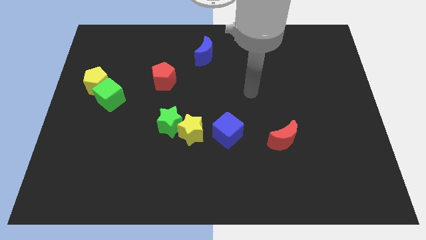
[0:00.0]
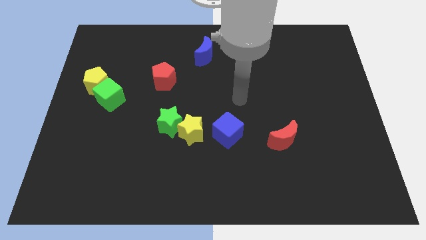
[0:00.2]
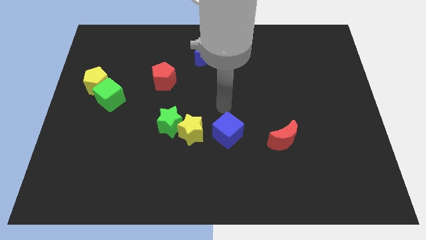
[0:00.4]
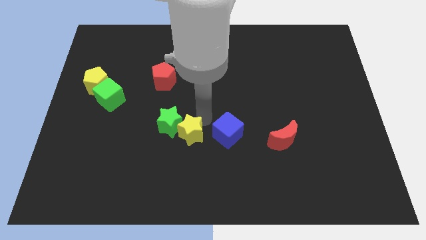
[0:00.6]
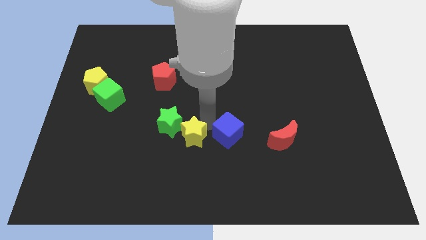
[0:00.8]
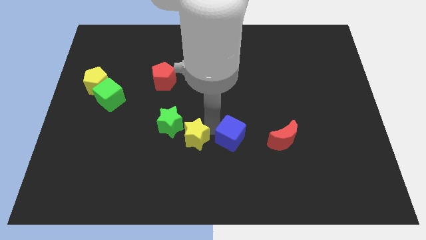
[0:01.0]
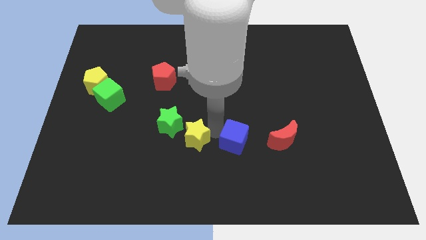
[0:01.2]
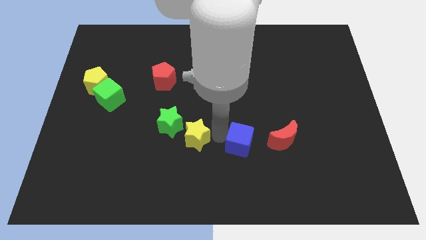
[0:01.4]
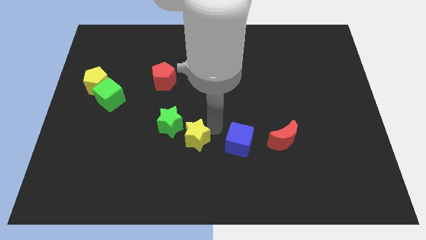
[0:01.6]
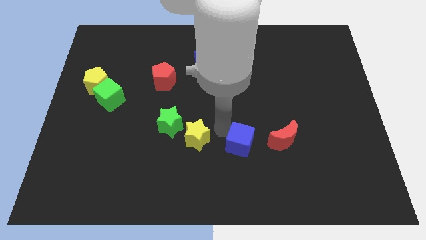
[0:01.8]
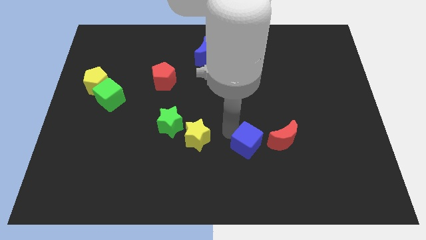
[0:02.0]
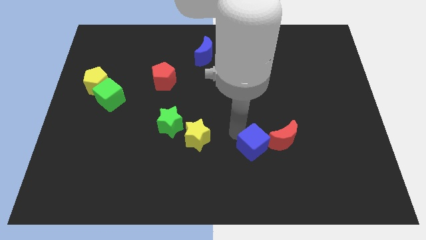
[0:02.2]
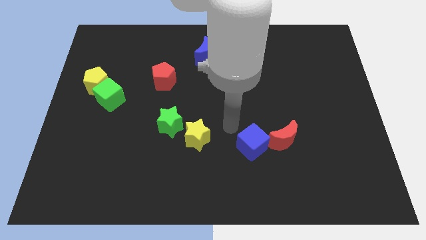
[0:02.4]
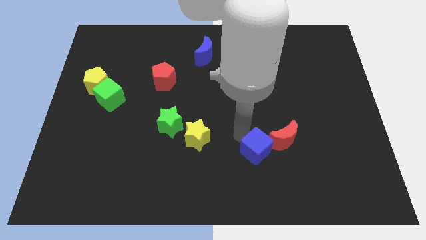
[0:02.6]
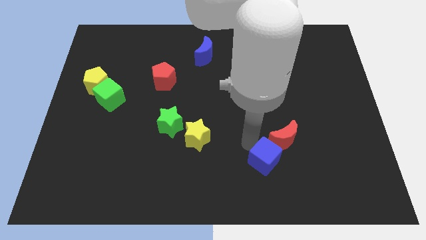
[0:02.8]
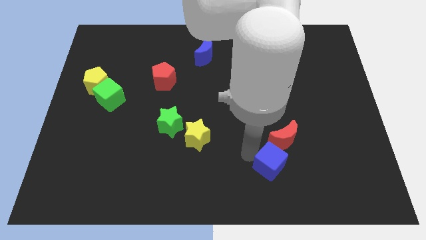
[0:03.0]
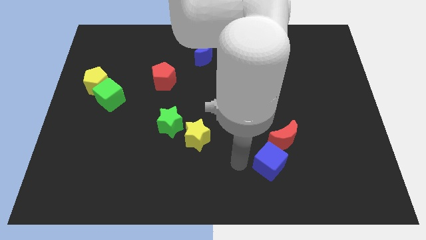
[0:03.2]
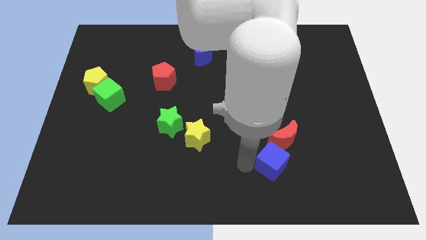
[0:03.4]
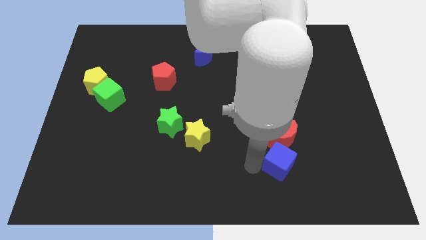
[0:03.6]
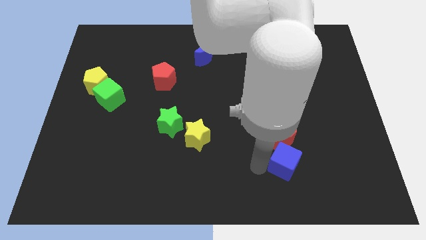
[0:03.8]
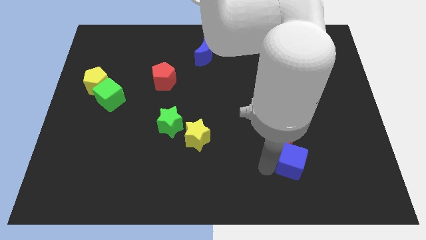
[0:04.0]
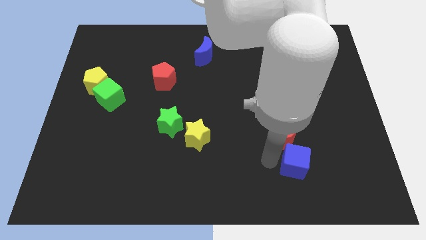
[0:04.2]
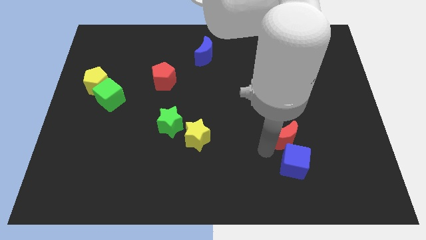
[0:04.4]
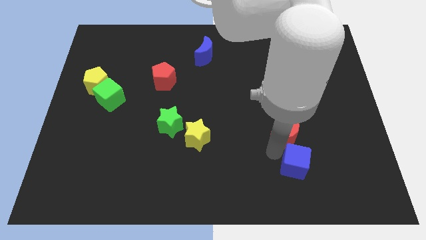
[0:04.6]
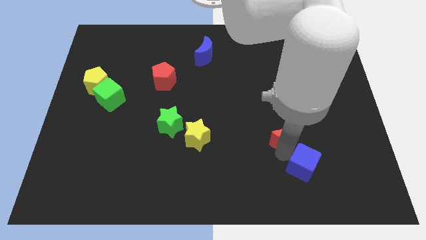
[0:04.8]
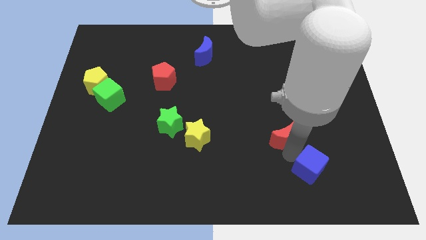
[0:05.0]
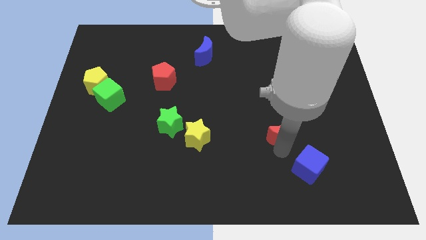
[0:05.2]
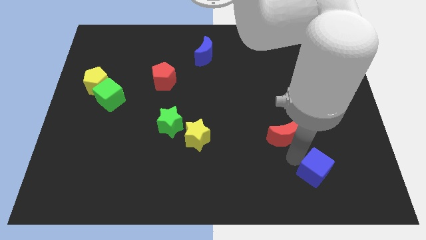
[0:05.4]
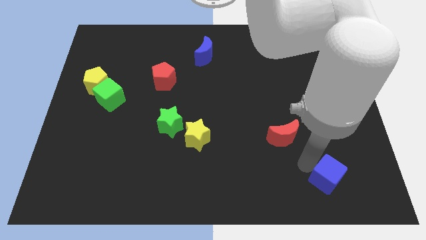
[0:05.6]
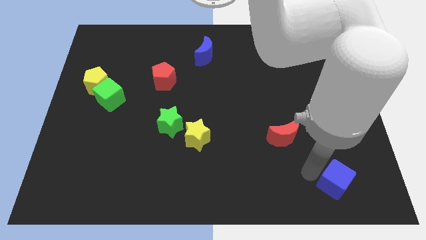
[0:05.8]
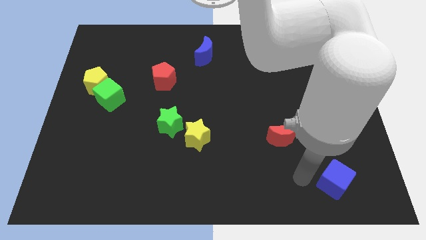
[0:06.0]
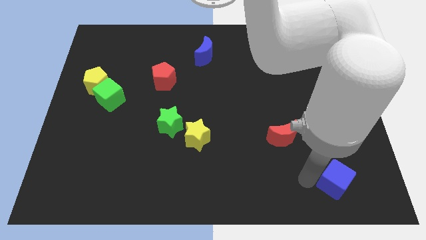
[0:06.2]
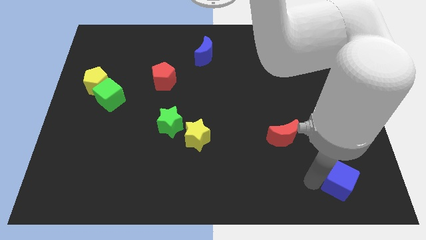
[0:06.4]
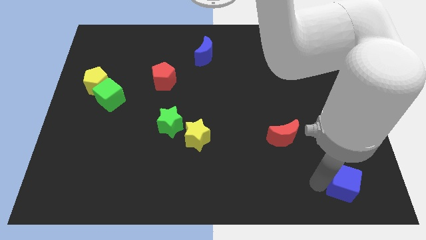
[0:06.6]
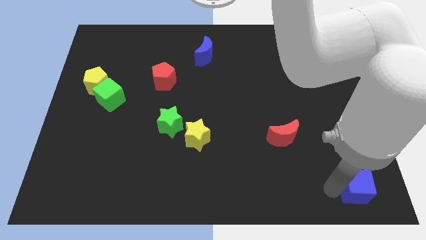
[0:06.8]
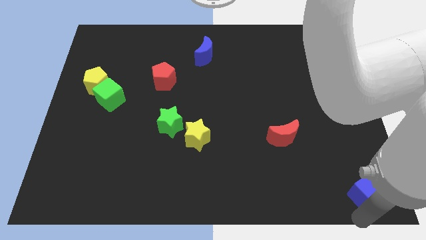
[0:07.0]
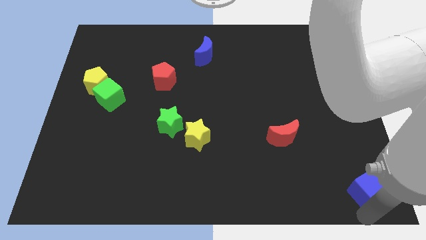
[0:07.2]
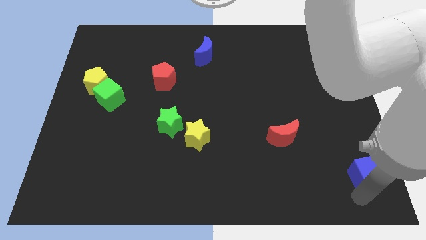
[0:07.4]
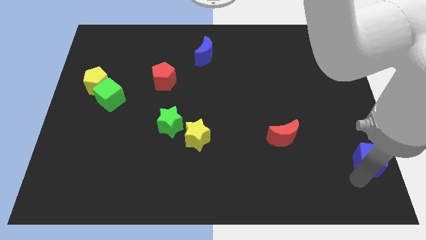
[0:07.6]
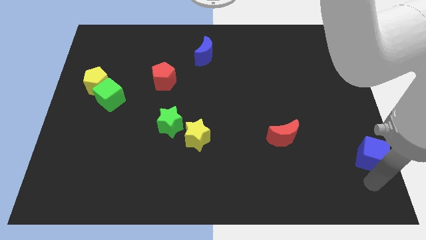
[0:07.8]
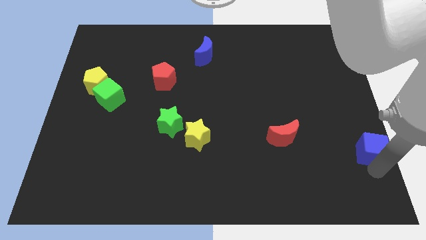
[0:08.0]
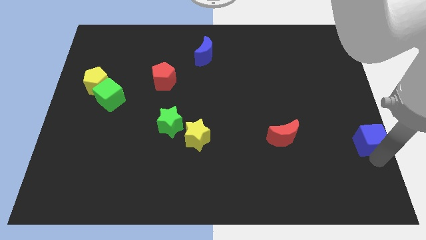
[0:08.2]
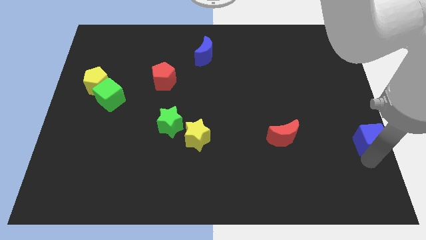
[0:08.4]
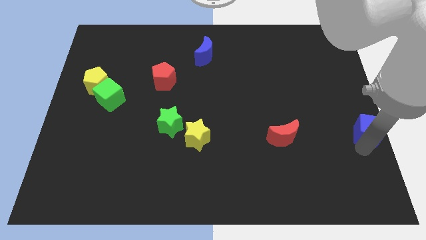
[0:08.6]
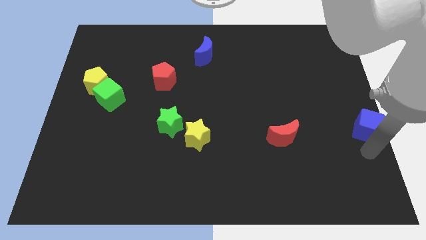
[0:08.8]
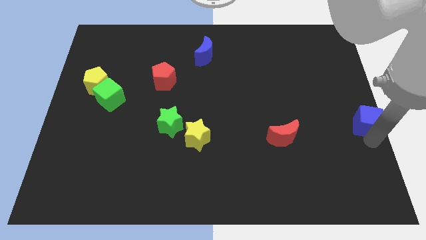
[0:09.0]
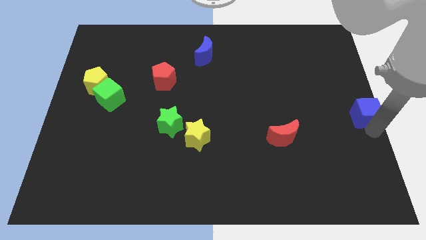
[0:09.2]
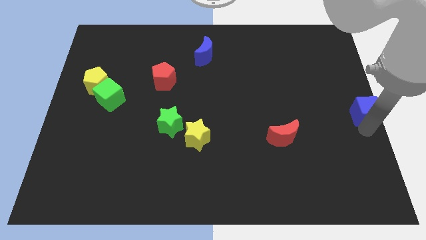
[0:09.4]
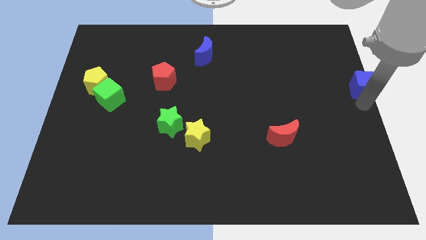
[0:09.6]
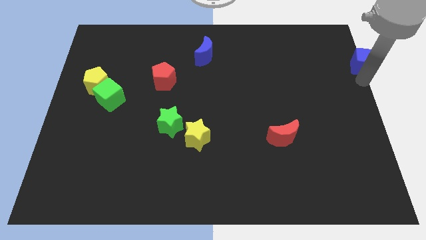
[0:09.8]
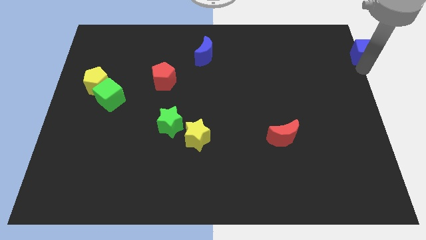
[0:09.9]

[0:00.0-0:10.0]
move the blue cube to the top right of the board

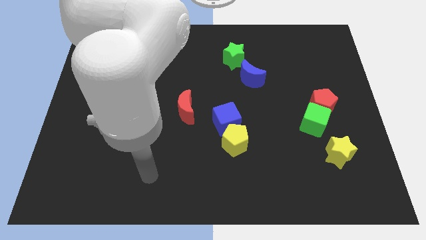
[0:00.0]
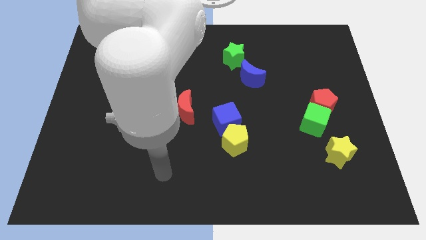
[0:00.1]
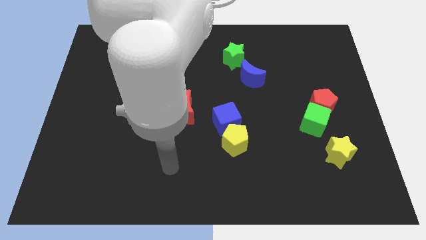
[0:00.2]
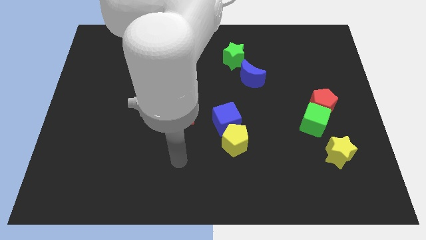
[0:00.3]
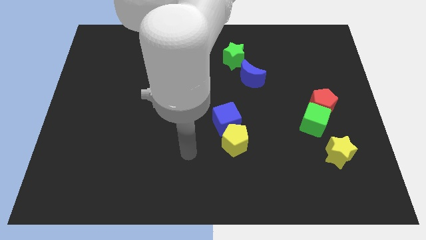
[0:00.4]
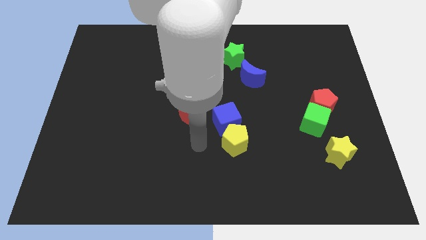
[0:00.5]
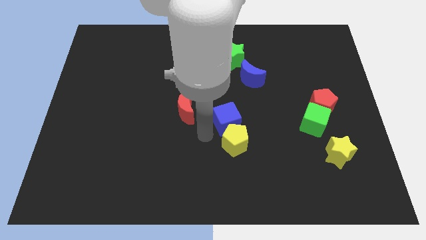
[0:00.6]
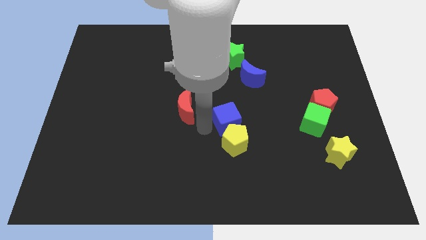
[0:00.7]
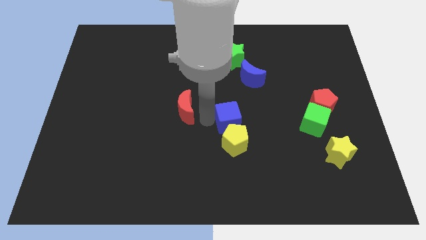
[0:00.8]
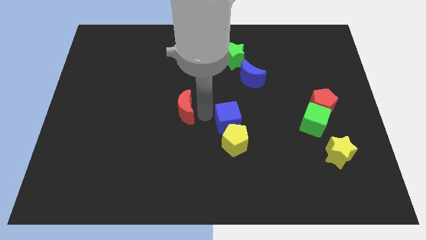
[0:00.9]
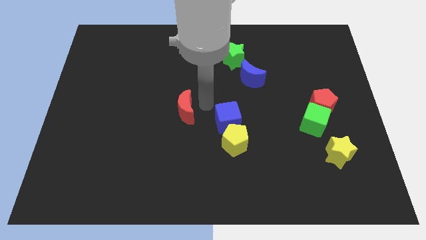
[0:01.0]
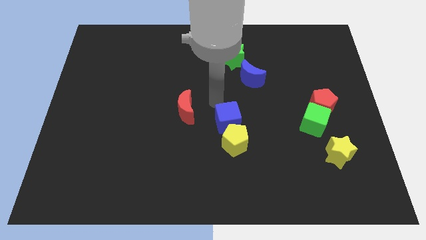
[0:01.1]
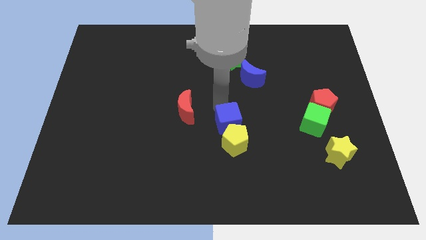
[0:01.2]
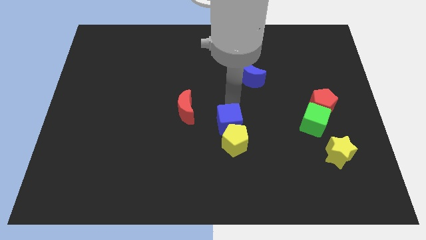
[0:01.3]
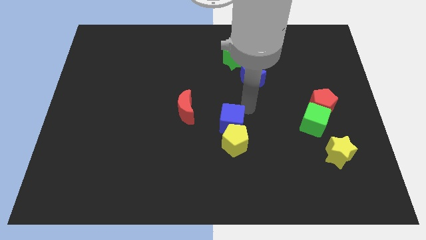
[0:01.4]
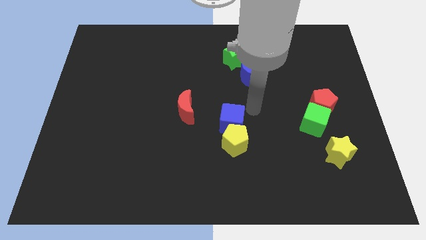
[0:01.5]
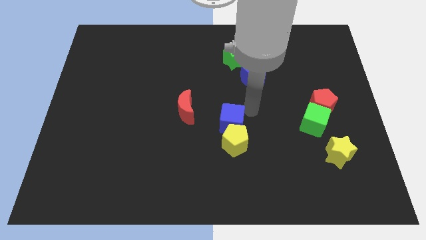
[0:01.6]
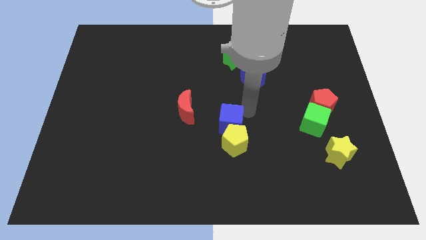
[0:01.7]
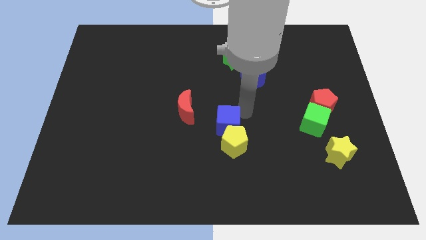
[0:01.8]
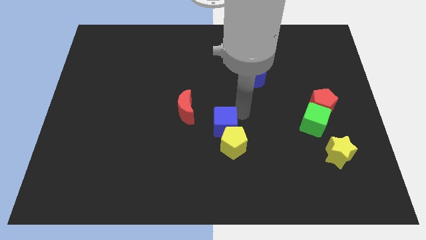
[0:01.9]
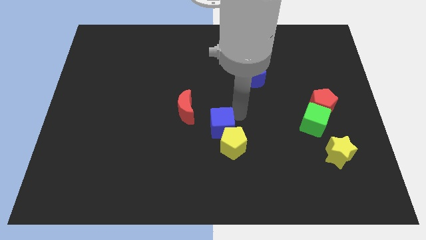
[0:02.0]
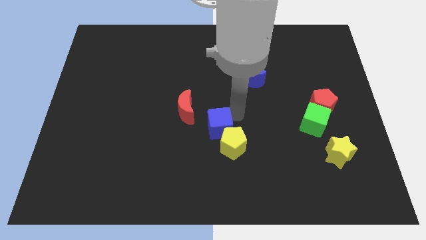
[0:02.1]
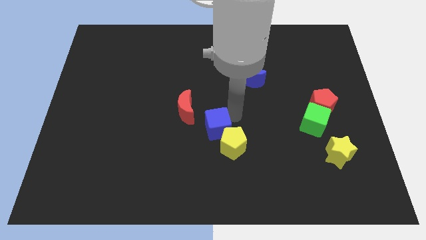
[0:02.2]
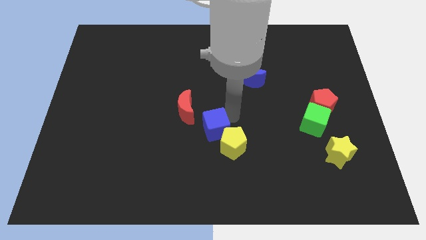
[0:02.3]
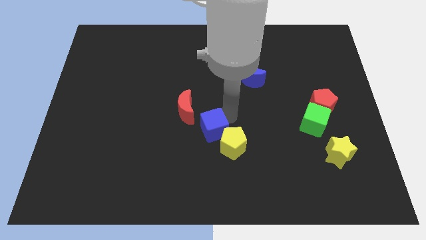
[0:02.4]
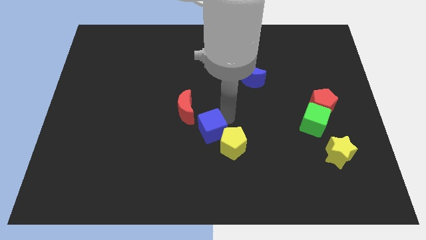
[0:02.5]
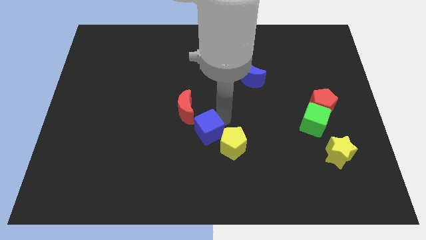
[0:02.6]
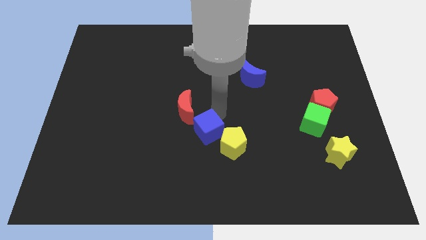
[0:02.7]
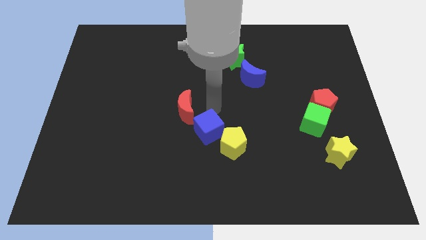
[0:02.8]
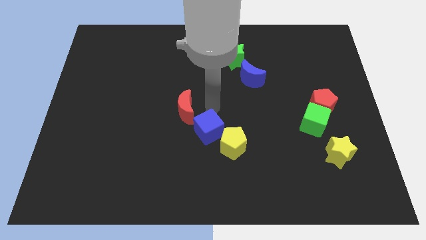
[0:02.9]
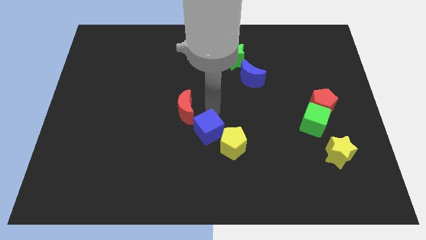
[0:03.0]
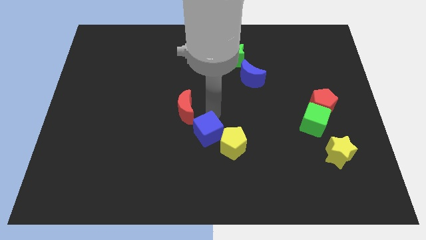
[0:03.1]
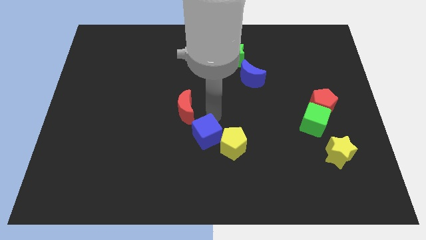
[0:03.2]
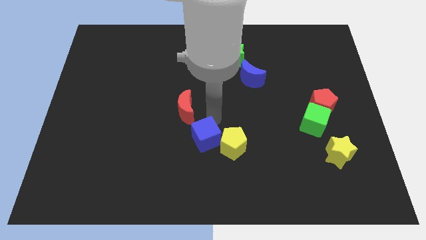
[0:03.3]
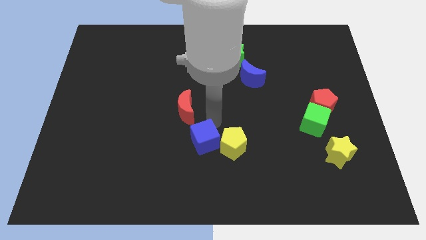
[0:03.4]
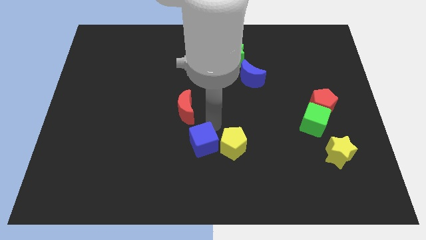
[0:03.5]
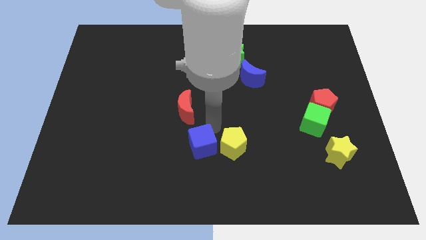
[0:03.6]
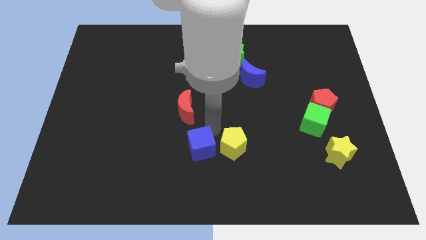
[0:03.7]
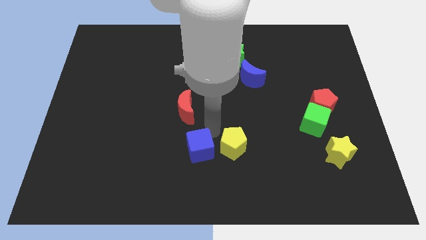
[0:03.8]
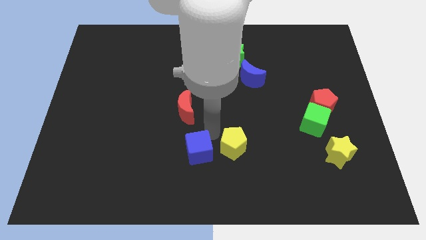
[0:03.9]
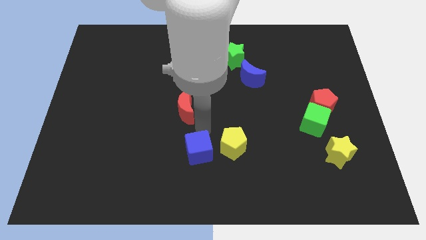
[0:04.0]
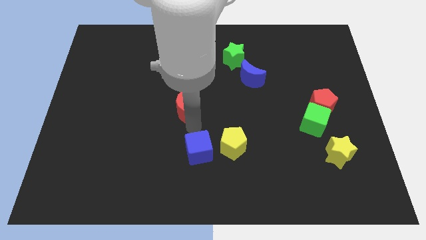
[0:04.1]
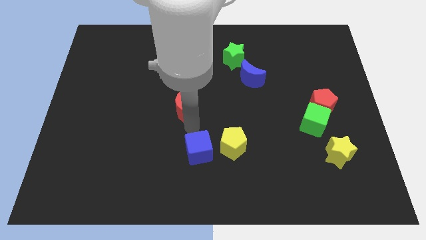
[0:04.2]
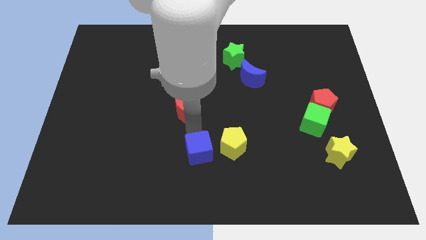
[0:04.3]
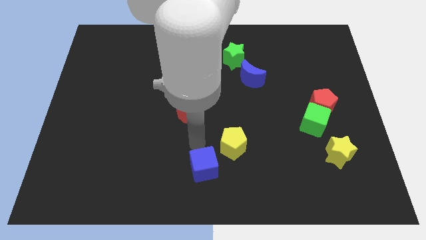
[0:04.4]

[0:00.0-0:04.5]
slide the blue cube to the bottom side
